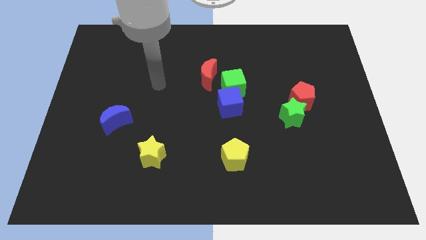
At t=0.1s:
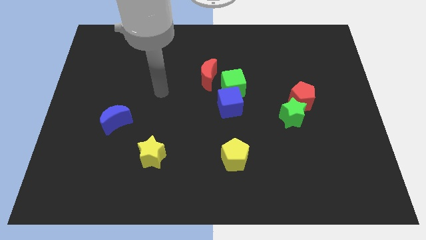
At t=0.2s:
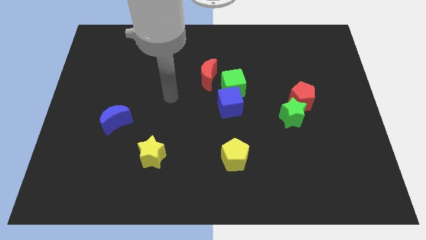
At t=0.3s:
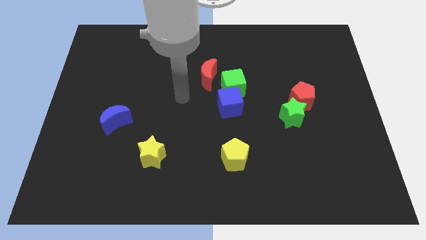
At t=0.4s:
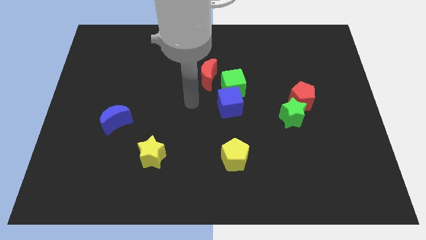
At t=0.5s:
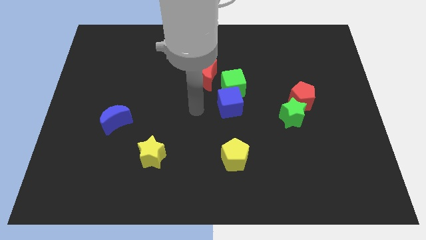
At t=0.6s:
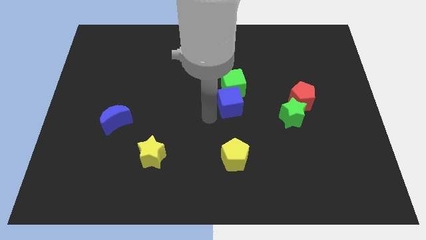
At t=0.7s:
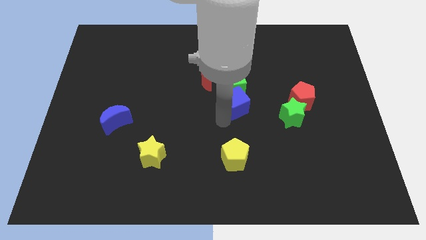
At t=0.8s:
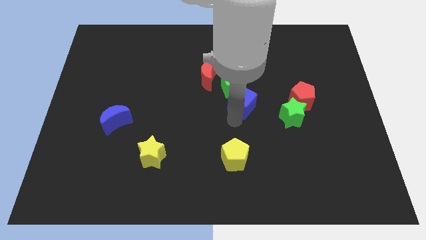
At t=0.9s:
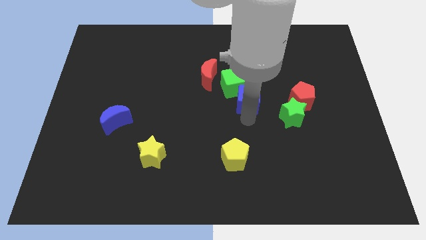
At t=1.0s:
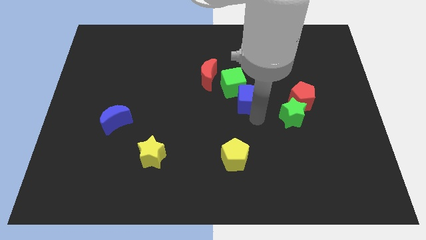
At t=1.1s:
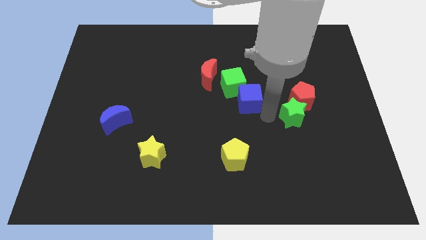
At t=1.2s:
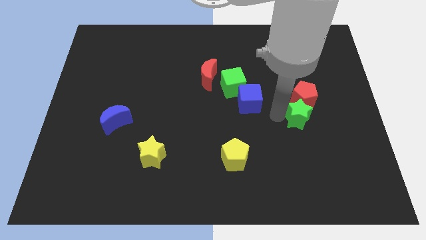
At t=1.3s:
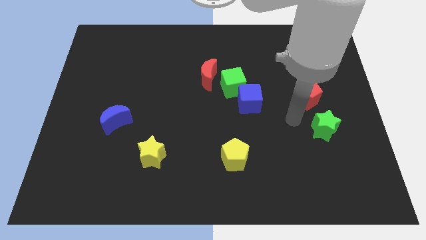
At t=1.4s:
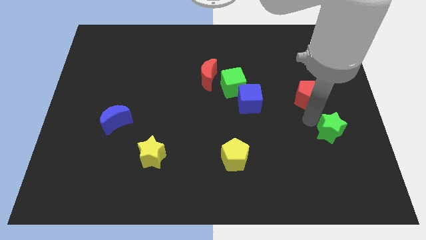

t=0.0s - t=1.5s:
move the red pentagon away from the green star

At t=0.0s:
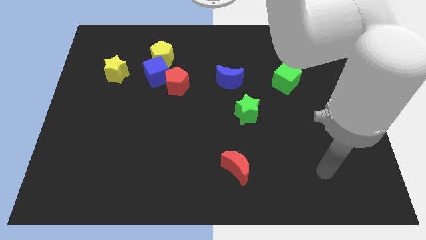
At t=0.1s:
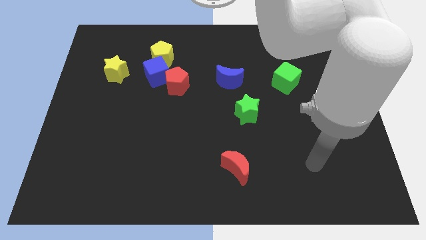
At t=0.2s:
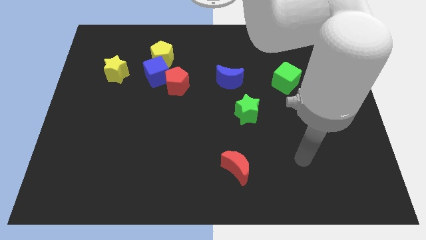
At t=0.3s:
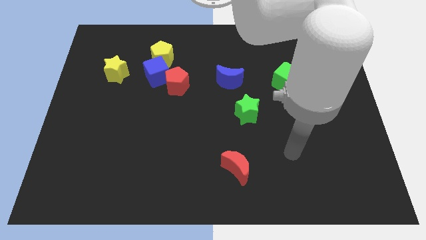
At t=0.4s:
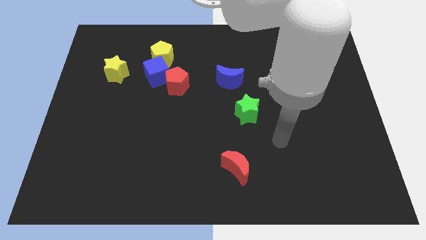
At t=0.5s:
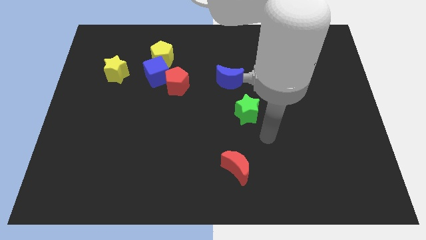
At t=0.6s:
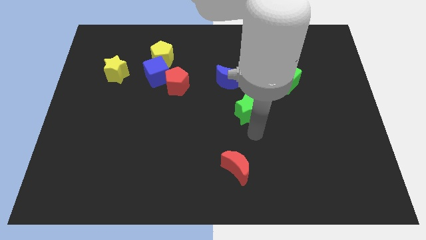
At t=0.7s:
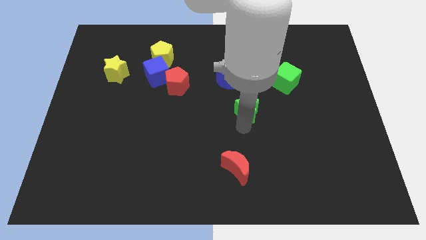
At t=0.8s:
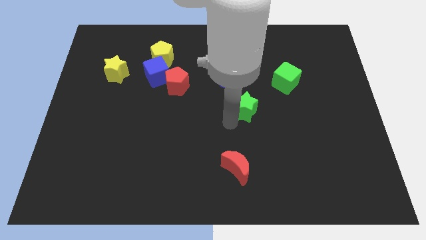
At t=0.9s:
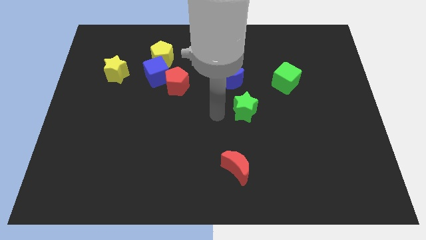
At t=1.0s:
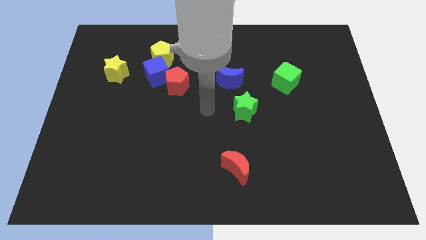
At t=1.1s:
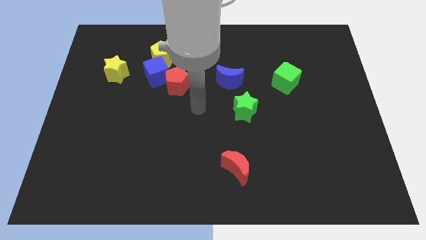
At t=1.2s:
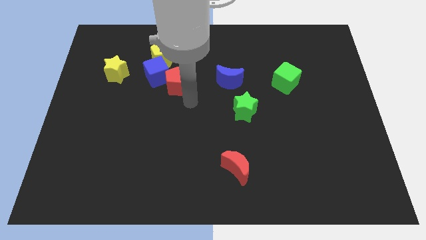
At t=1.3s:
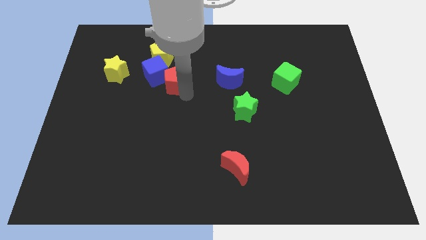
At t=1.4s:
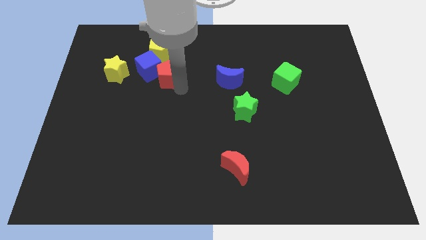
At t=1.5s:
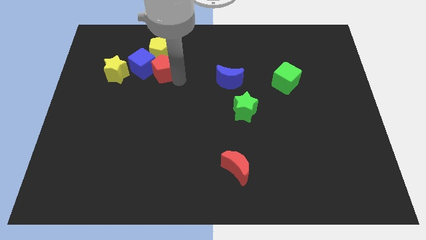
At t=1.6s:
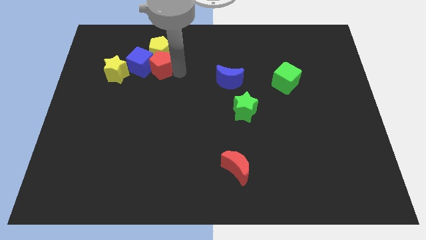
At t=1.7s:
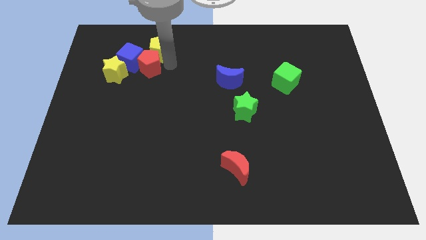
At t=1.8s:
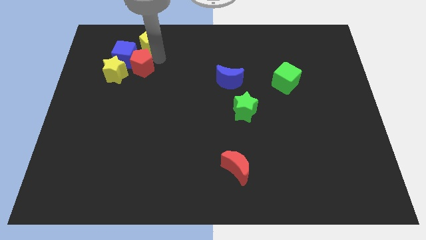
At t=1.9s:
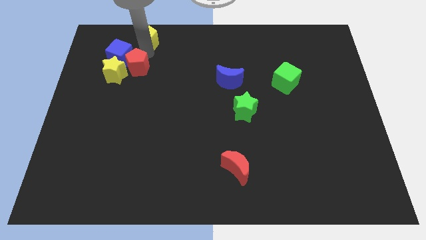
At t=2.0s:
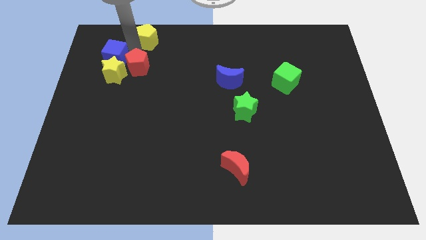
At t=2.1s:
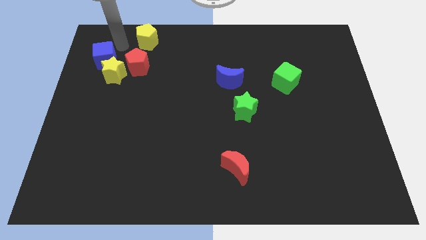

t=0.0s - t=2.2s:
separate the blue cube from the red pentagon and yellow pentagon

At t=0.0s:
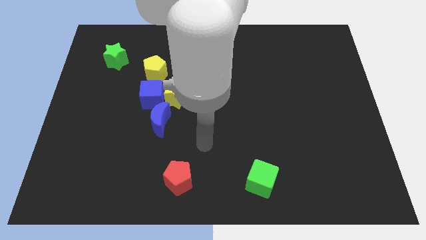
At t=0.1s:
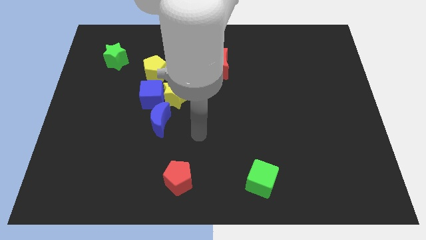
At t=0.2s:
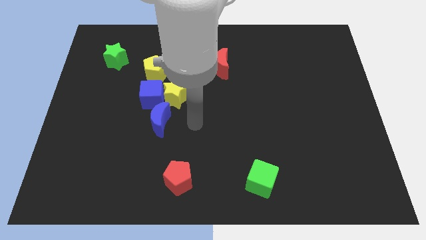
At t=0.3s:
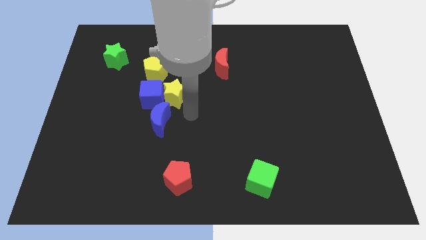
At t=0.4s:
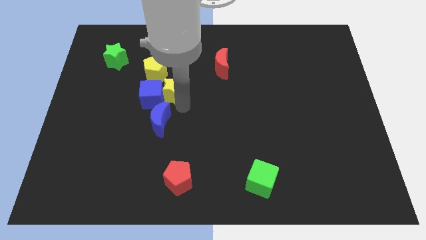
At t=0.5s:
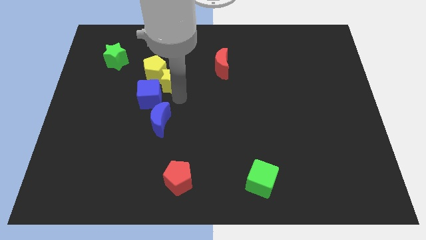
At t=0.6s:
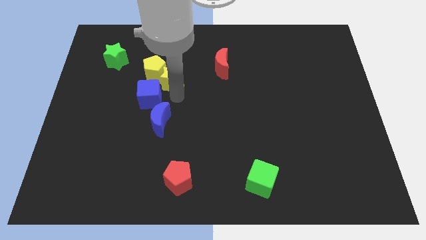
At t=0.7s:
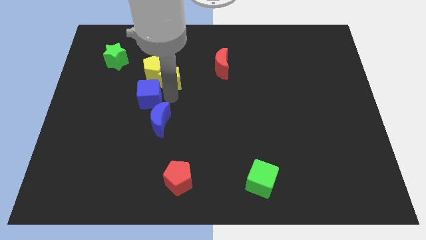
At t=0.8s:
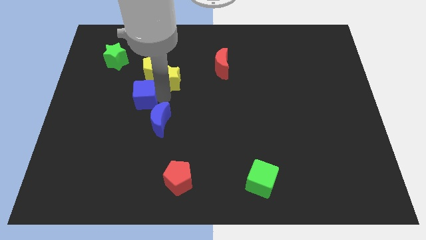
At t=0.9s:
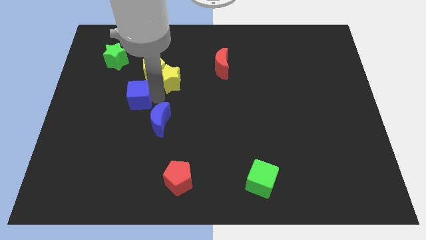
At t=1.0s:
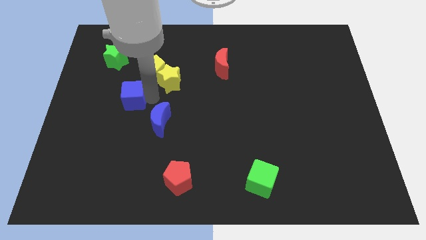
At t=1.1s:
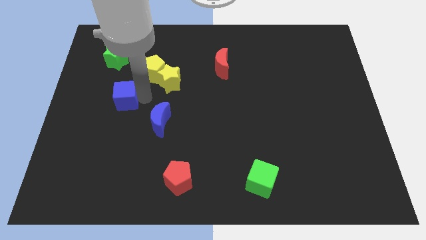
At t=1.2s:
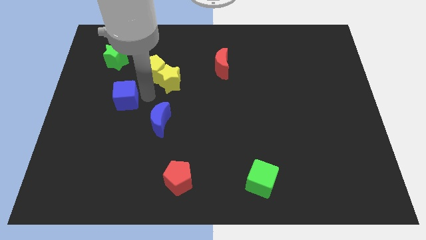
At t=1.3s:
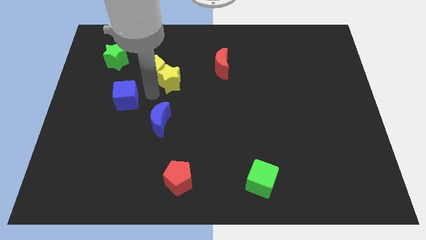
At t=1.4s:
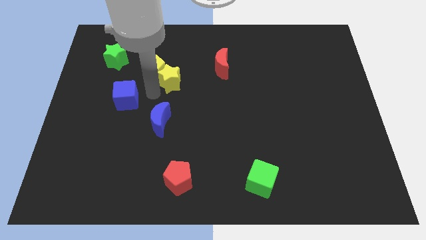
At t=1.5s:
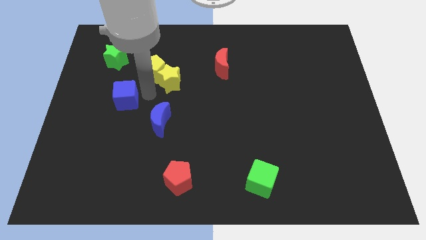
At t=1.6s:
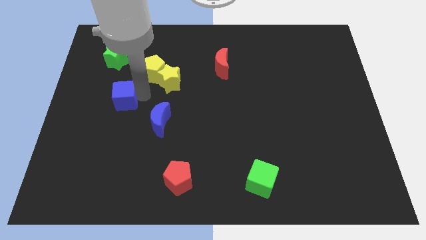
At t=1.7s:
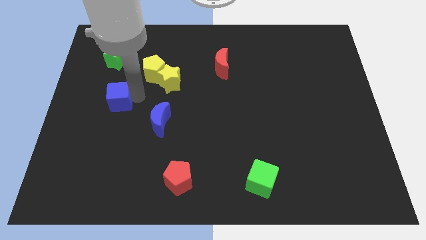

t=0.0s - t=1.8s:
pull the blue cube apart from the yellow star, blue moon, and yellow pentagon

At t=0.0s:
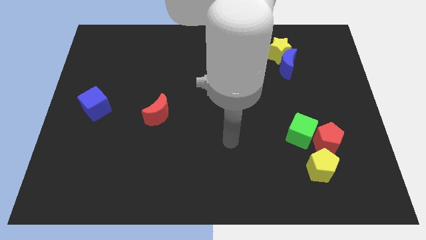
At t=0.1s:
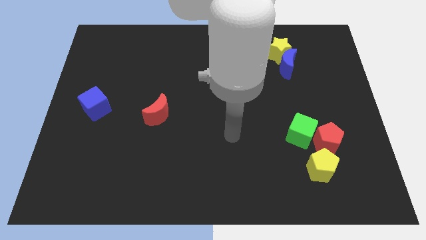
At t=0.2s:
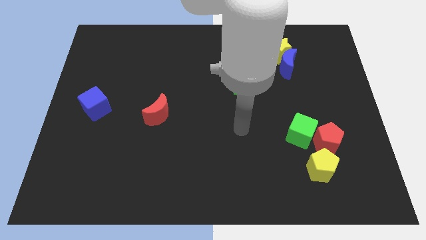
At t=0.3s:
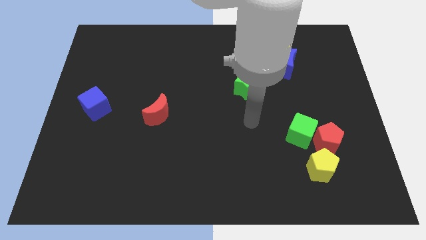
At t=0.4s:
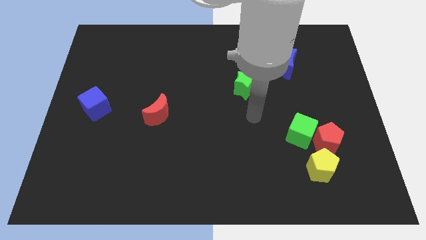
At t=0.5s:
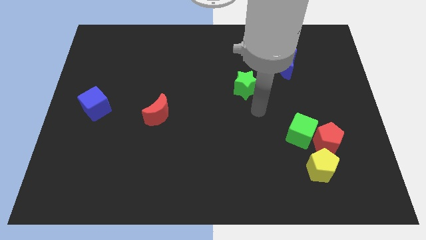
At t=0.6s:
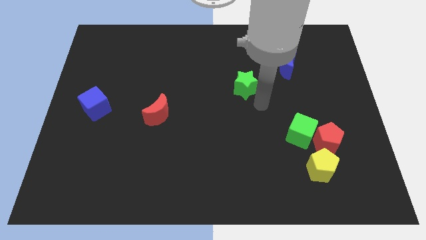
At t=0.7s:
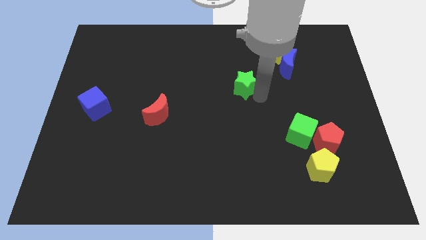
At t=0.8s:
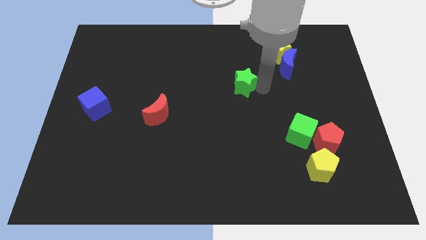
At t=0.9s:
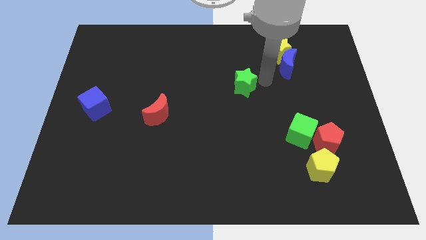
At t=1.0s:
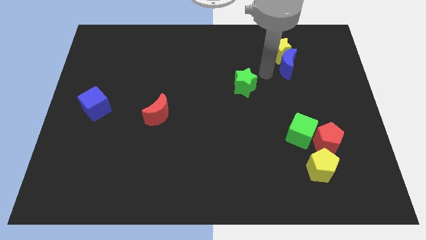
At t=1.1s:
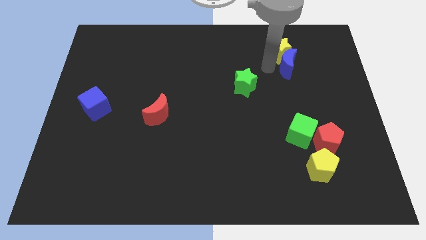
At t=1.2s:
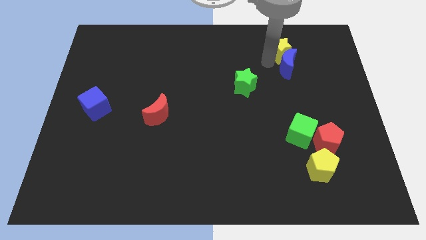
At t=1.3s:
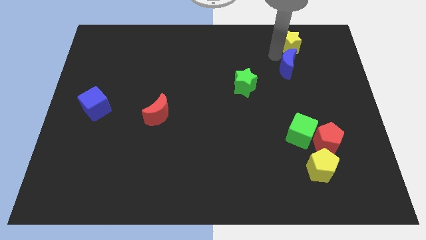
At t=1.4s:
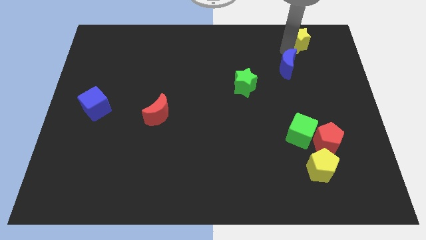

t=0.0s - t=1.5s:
pull the blue moon apart from the yellow star

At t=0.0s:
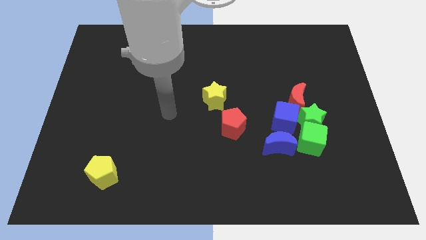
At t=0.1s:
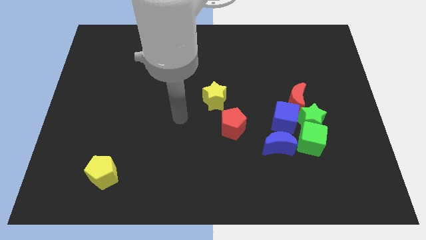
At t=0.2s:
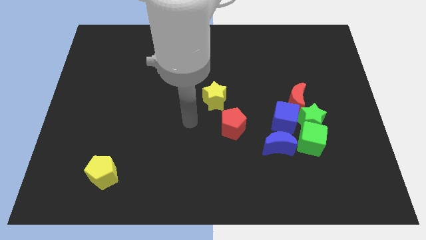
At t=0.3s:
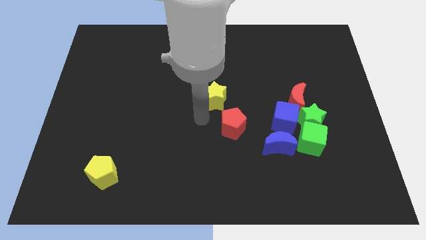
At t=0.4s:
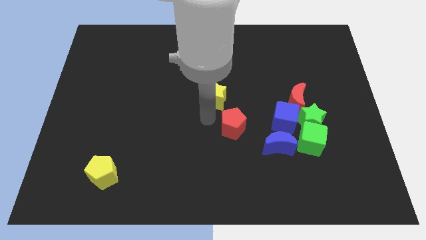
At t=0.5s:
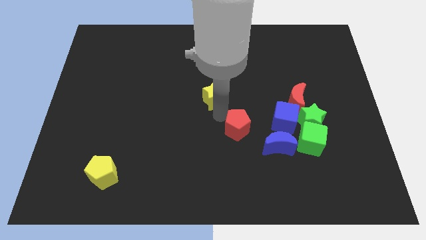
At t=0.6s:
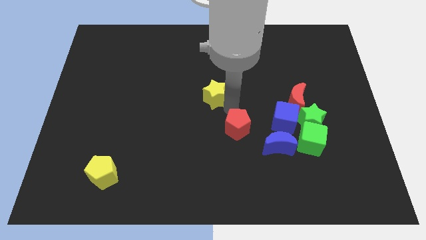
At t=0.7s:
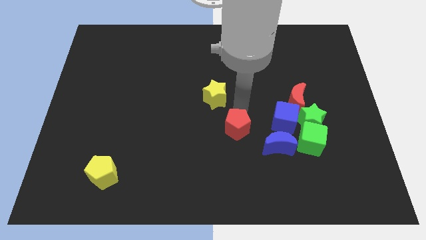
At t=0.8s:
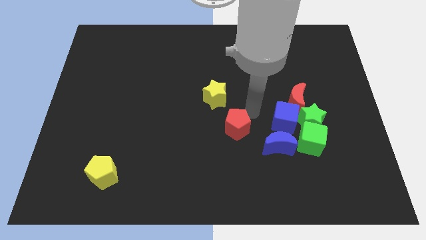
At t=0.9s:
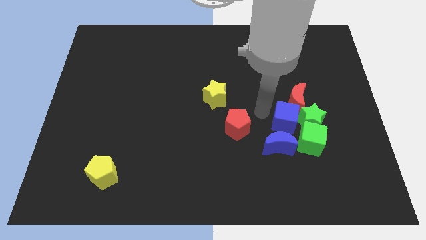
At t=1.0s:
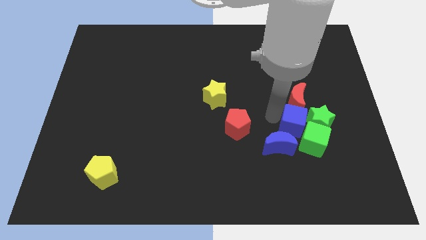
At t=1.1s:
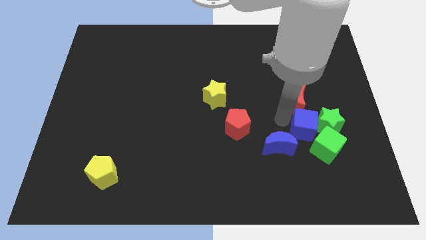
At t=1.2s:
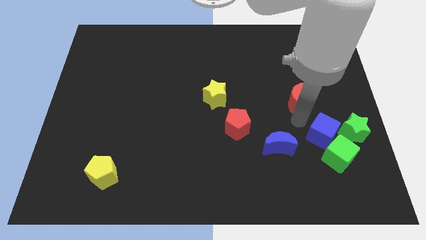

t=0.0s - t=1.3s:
pull the red moon apart from the blue cube and green star

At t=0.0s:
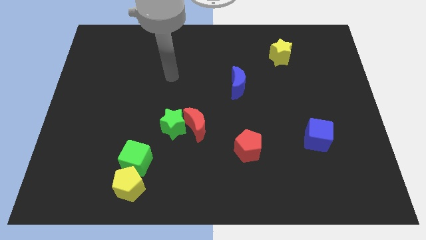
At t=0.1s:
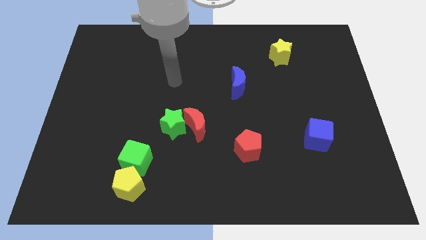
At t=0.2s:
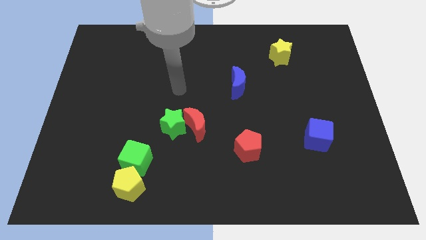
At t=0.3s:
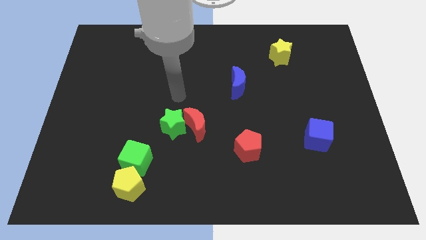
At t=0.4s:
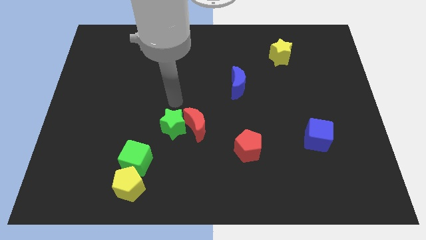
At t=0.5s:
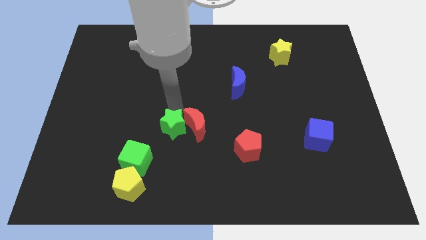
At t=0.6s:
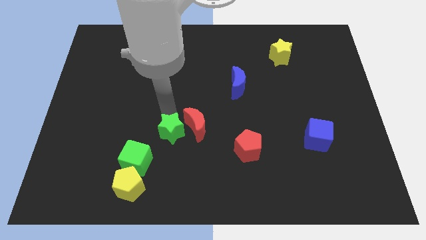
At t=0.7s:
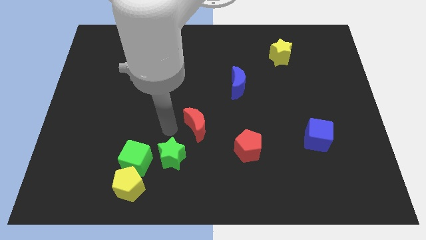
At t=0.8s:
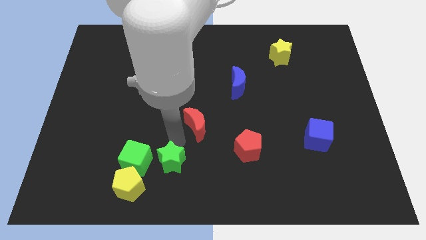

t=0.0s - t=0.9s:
pull the red moon apart from the green star

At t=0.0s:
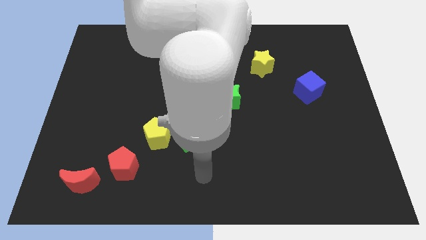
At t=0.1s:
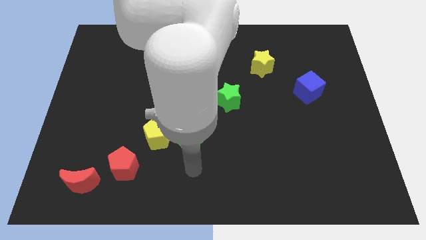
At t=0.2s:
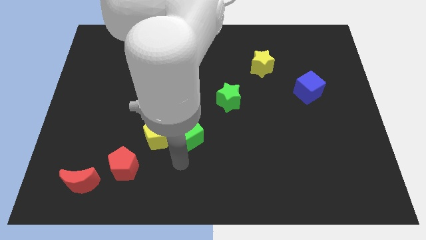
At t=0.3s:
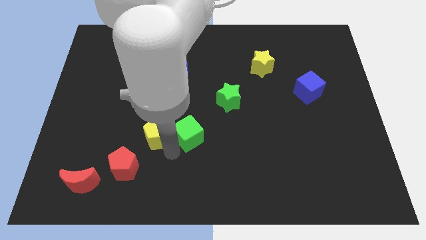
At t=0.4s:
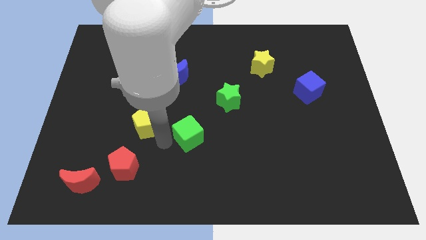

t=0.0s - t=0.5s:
pull the green cube apart from the yellow pentagon